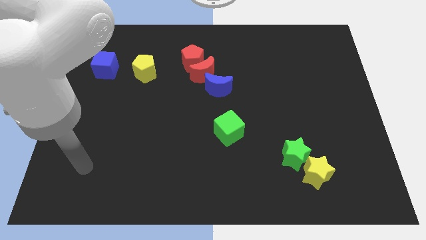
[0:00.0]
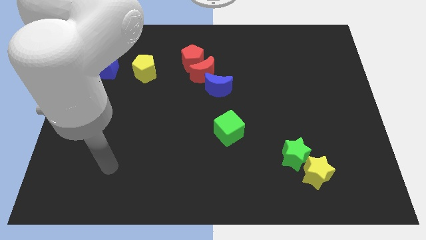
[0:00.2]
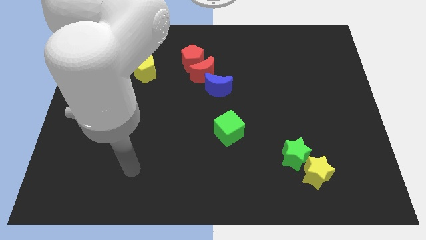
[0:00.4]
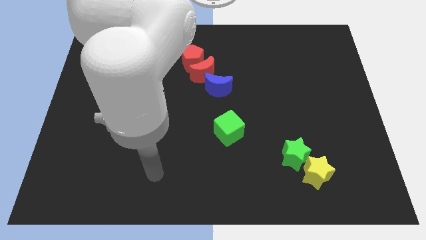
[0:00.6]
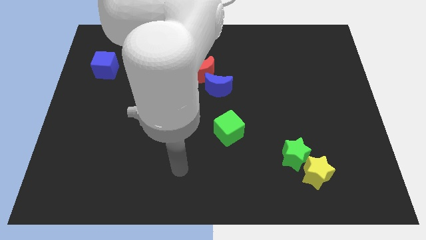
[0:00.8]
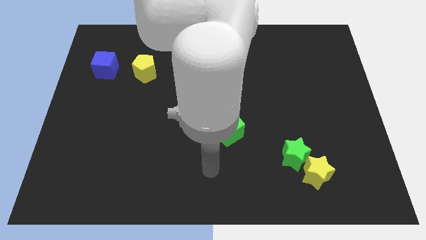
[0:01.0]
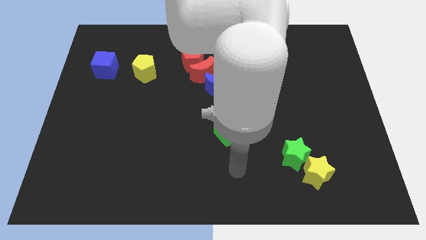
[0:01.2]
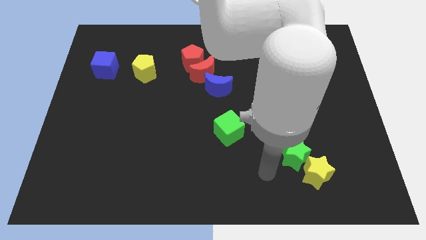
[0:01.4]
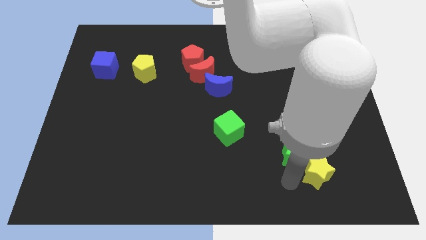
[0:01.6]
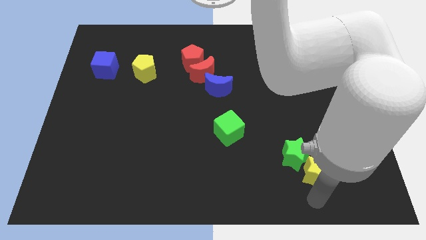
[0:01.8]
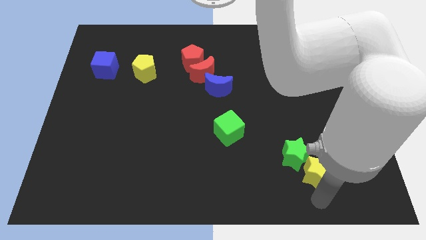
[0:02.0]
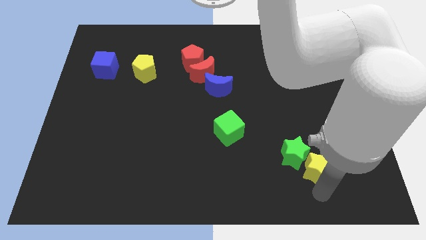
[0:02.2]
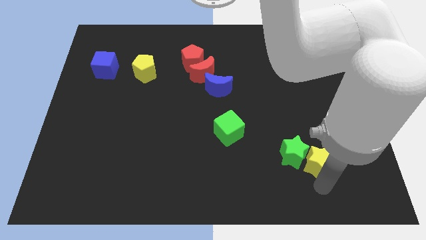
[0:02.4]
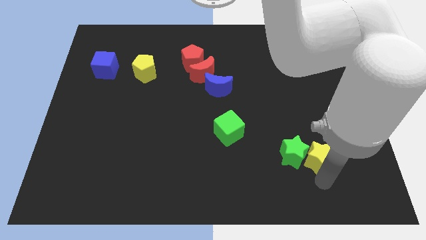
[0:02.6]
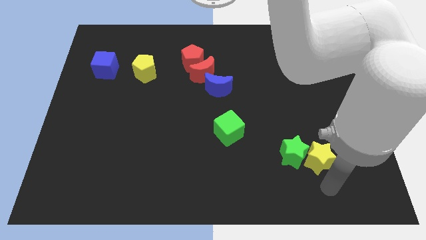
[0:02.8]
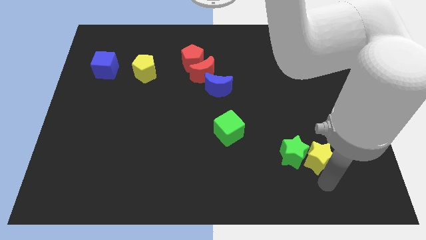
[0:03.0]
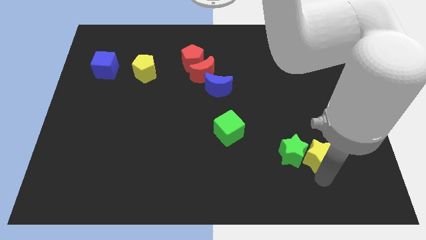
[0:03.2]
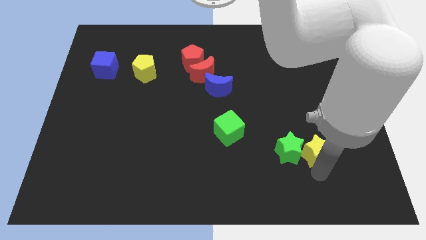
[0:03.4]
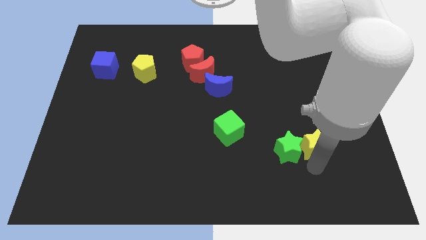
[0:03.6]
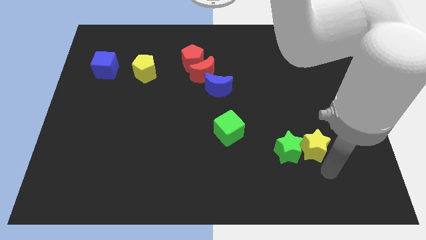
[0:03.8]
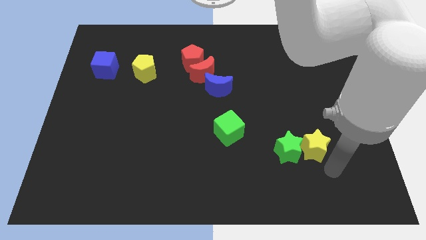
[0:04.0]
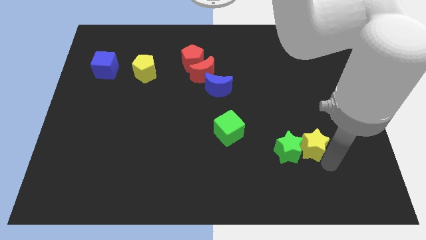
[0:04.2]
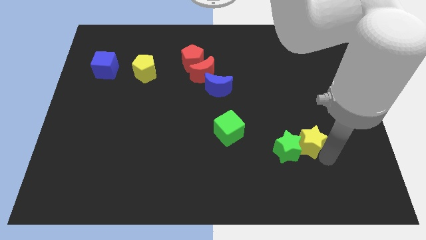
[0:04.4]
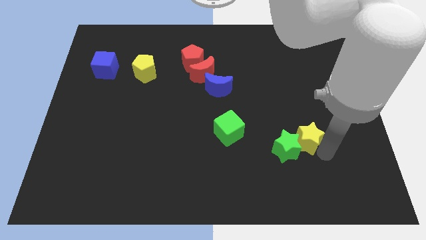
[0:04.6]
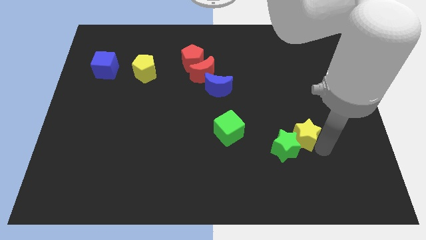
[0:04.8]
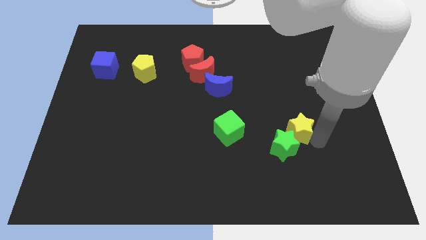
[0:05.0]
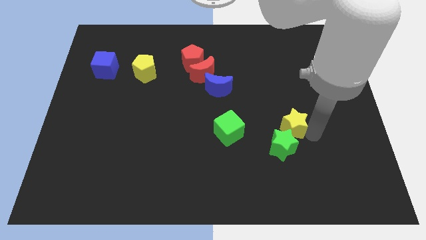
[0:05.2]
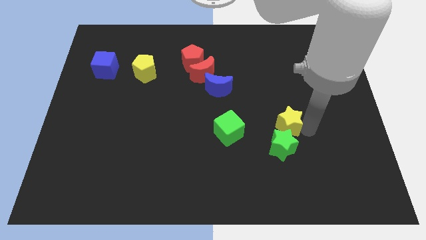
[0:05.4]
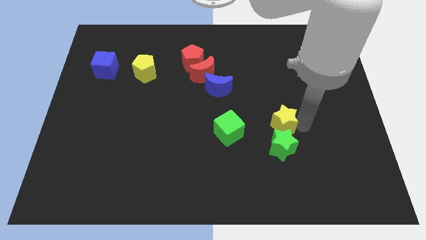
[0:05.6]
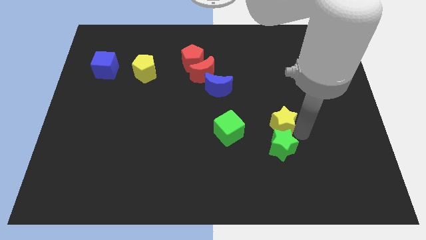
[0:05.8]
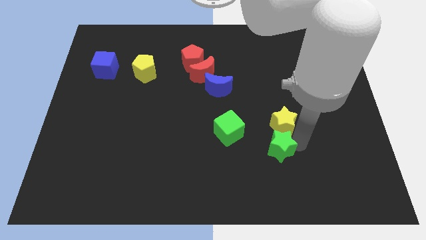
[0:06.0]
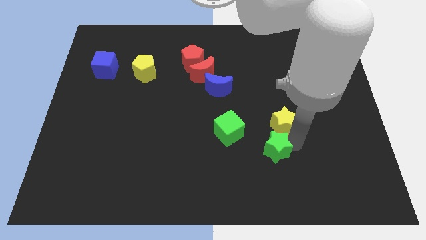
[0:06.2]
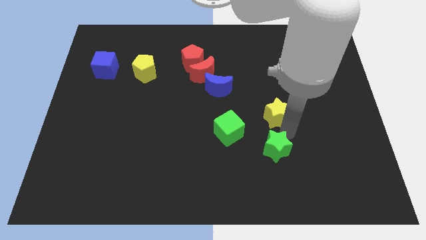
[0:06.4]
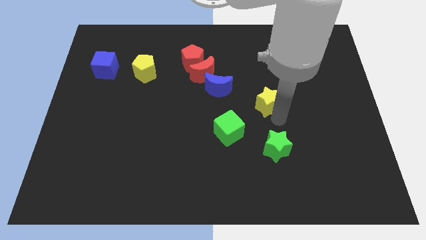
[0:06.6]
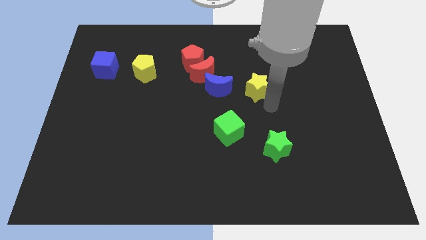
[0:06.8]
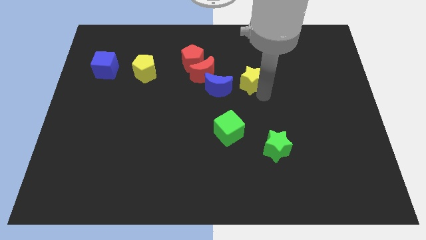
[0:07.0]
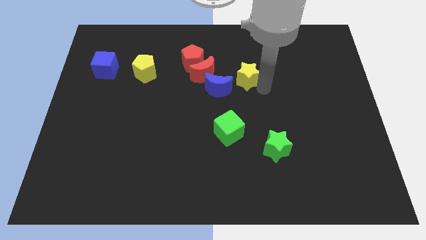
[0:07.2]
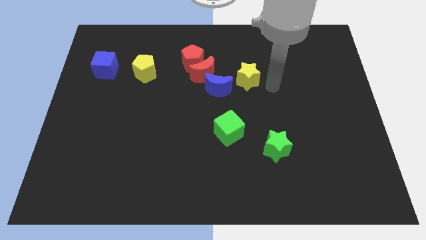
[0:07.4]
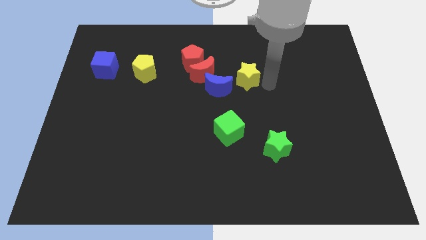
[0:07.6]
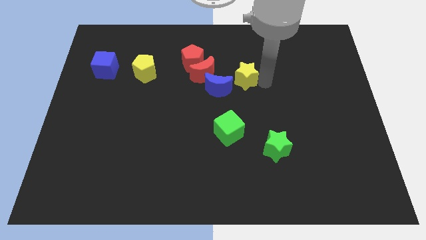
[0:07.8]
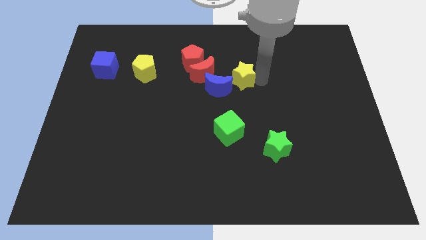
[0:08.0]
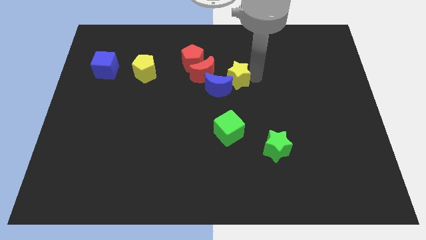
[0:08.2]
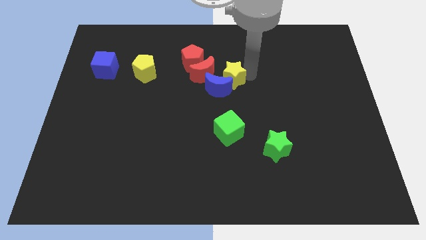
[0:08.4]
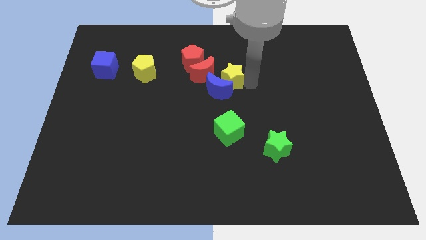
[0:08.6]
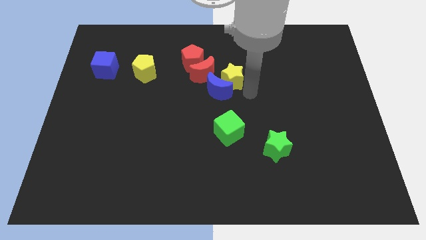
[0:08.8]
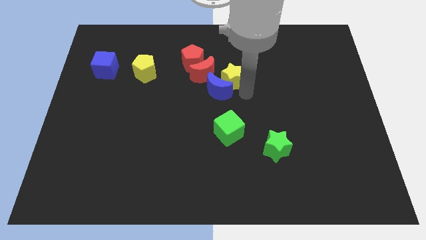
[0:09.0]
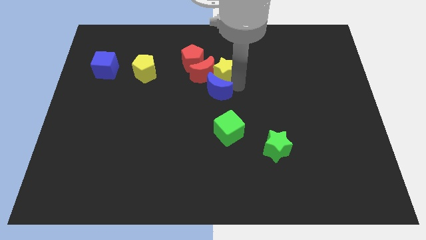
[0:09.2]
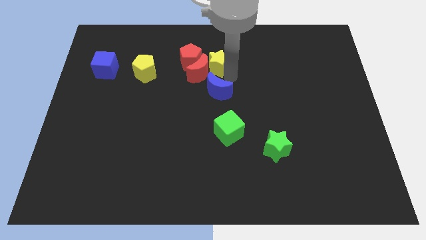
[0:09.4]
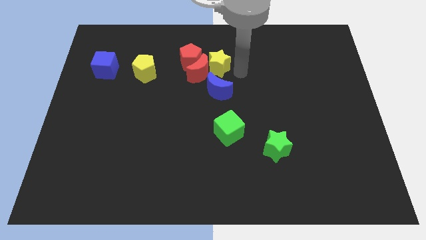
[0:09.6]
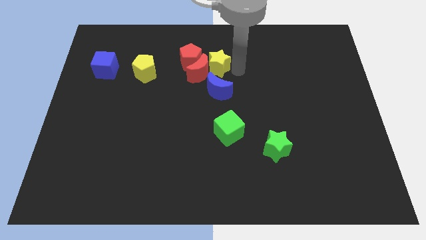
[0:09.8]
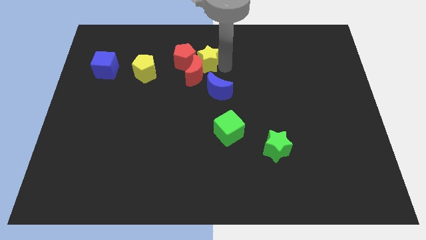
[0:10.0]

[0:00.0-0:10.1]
push the yellow star towards the red pentagon

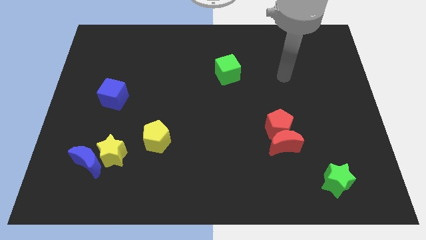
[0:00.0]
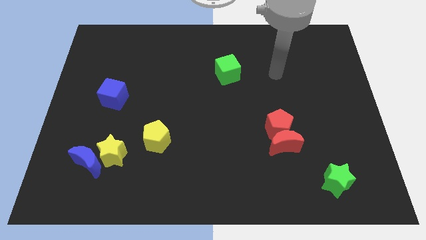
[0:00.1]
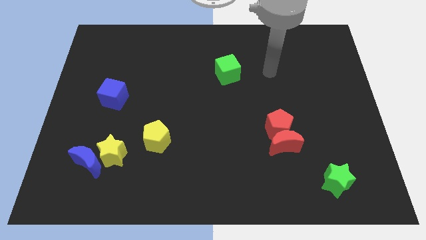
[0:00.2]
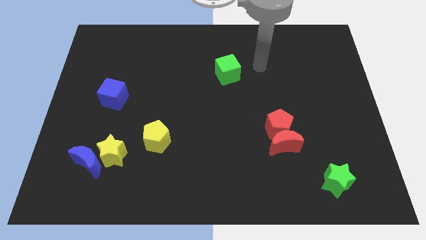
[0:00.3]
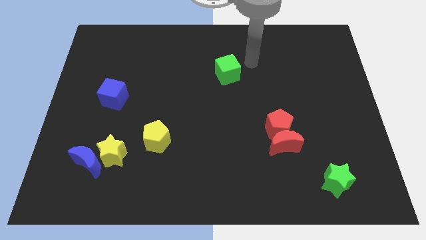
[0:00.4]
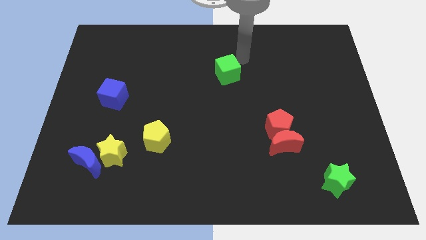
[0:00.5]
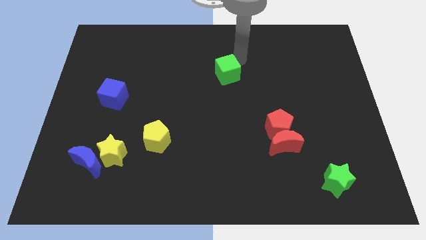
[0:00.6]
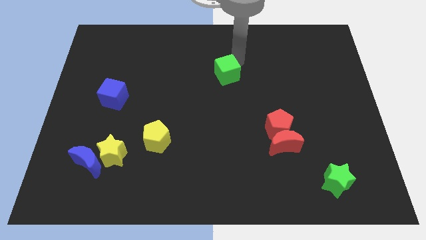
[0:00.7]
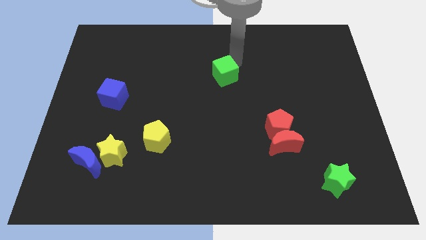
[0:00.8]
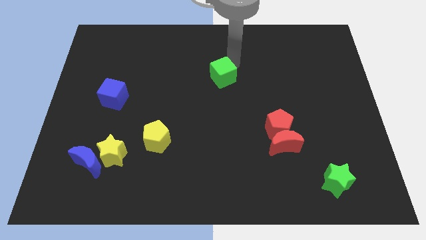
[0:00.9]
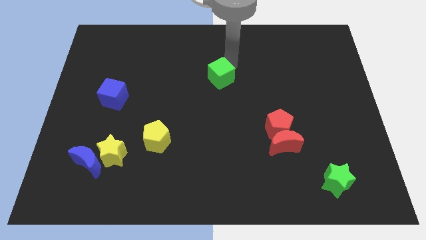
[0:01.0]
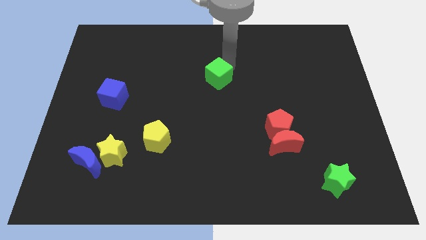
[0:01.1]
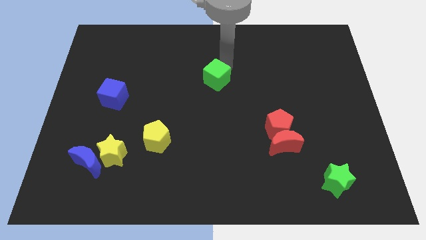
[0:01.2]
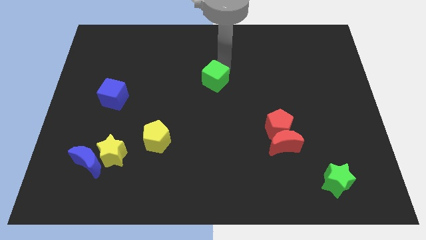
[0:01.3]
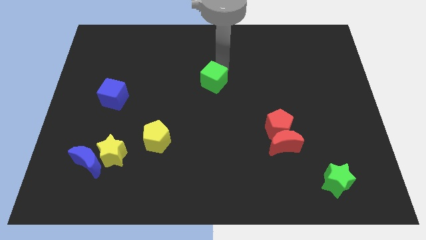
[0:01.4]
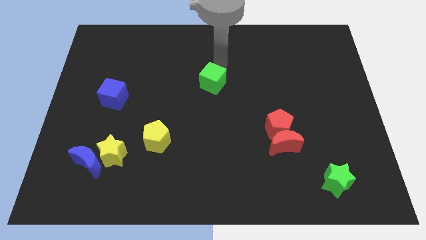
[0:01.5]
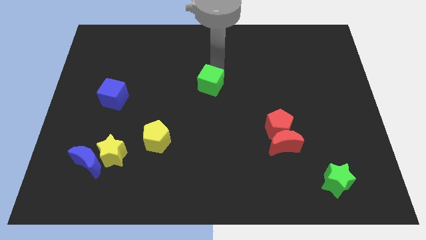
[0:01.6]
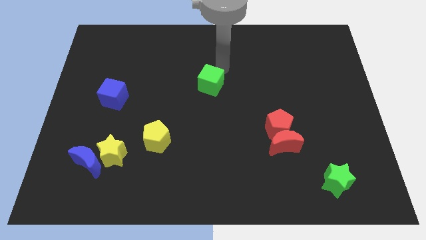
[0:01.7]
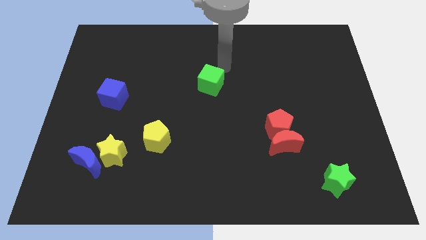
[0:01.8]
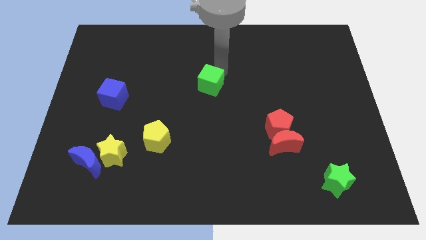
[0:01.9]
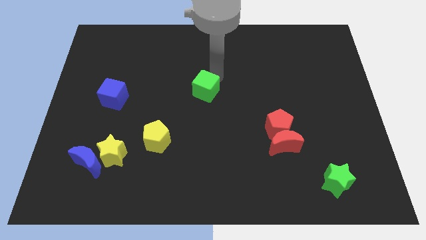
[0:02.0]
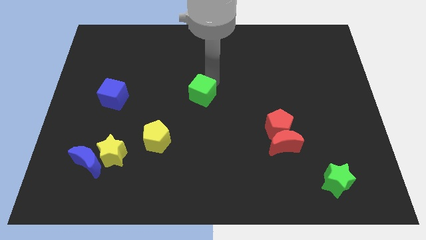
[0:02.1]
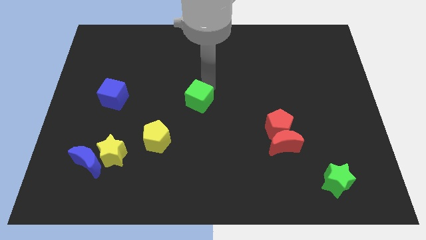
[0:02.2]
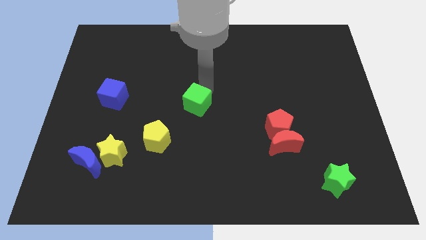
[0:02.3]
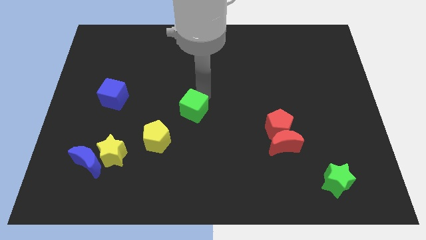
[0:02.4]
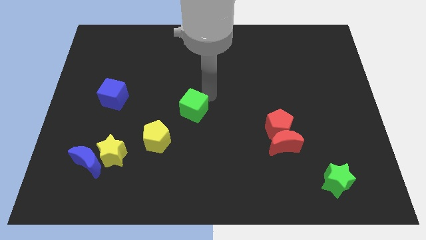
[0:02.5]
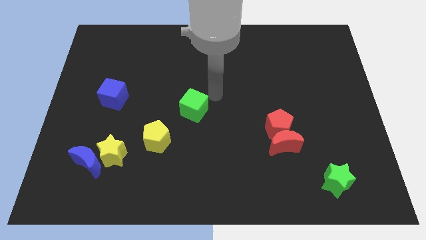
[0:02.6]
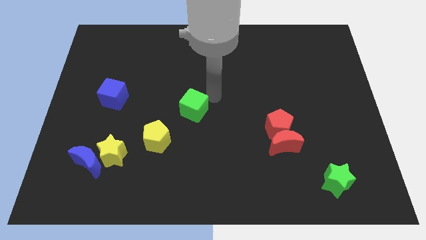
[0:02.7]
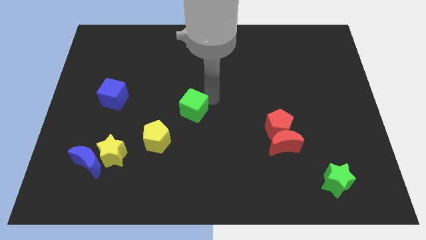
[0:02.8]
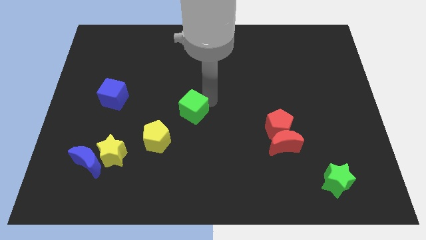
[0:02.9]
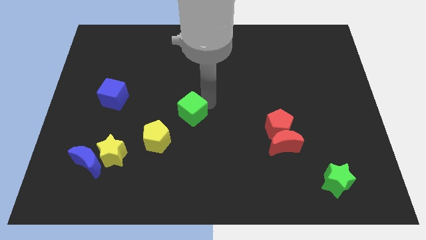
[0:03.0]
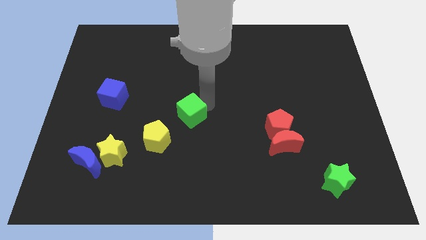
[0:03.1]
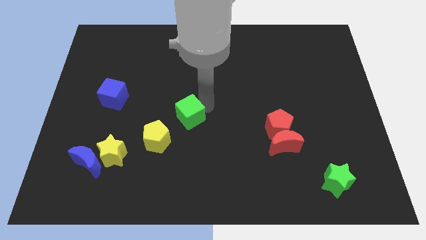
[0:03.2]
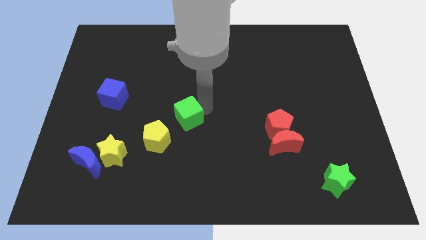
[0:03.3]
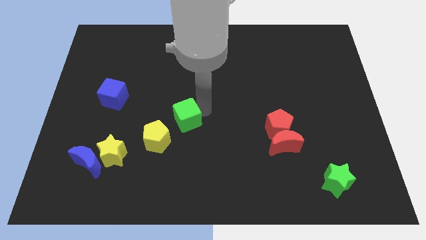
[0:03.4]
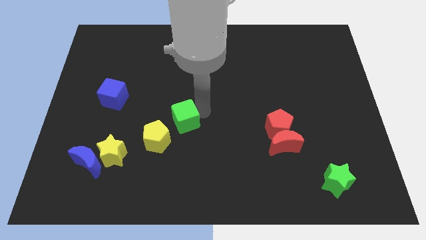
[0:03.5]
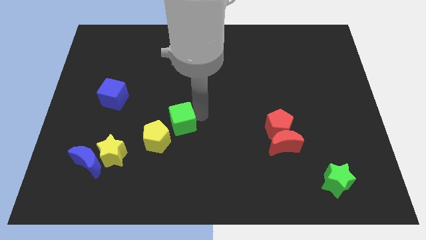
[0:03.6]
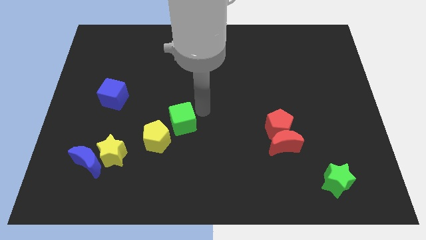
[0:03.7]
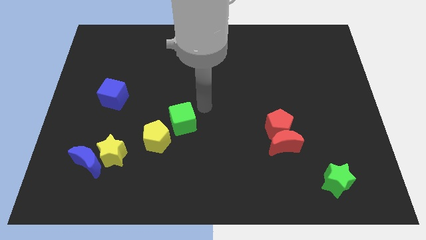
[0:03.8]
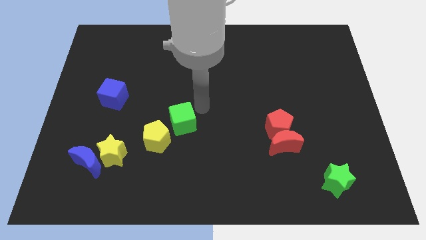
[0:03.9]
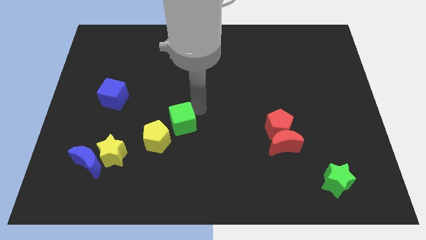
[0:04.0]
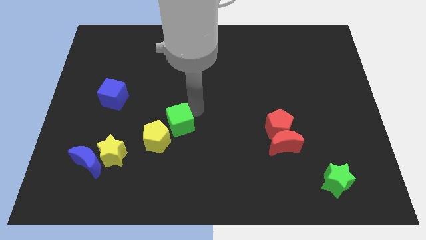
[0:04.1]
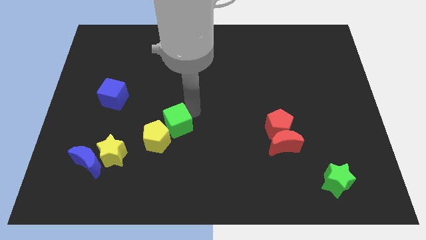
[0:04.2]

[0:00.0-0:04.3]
move the green cube next to the yellow pentagon
